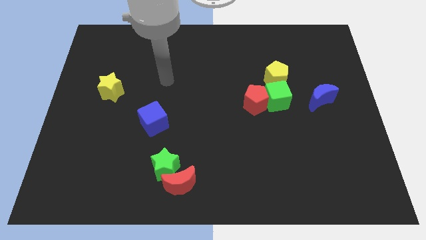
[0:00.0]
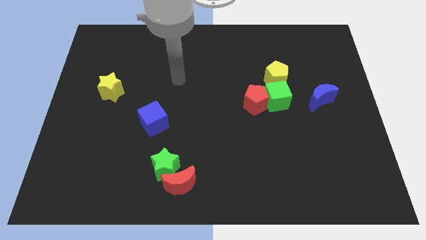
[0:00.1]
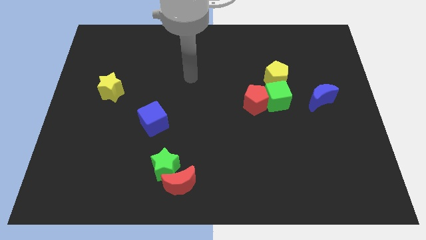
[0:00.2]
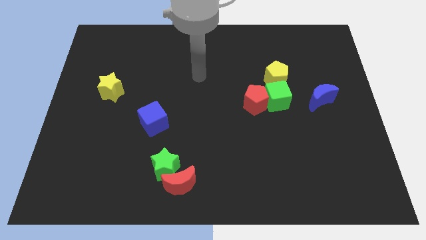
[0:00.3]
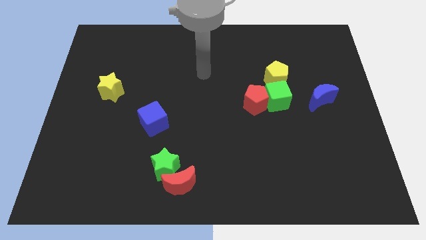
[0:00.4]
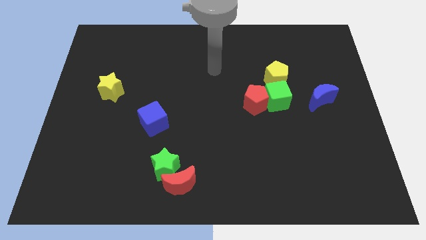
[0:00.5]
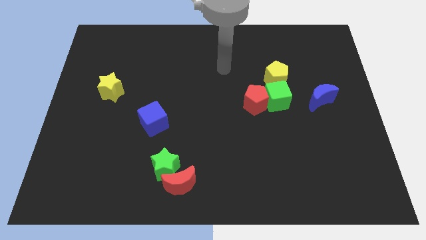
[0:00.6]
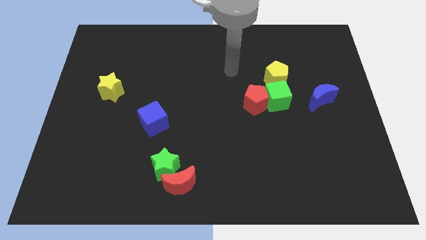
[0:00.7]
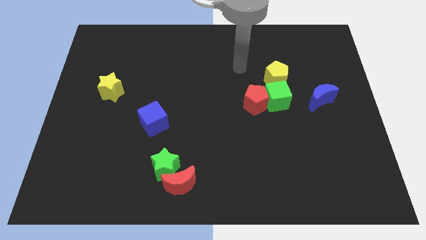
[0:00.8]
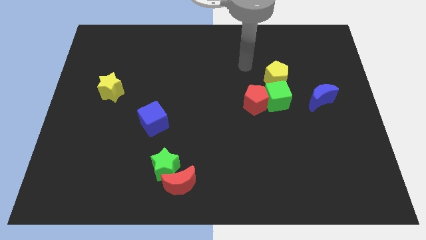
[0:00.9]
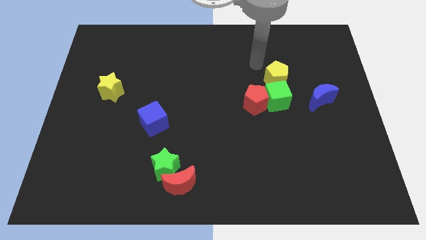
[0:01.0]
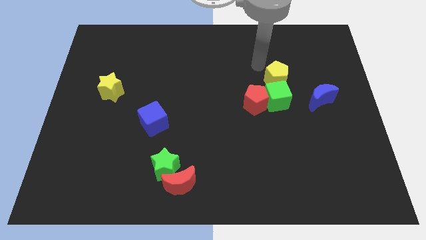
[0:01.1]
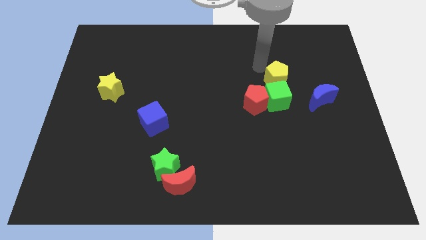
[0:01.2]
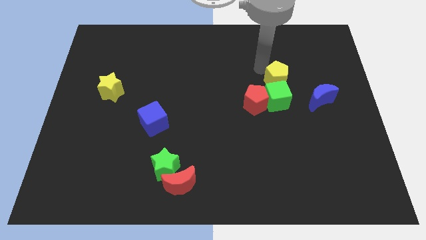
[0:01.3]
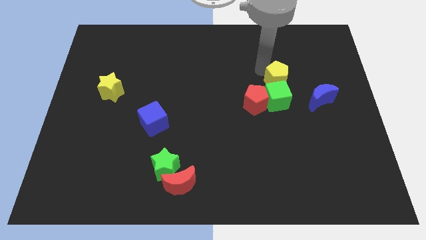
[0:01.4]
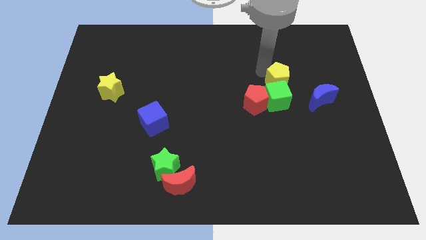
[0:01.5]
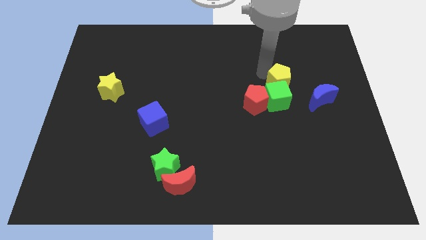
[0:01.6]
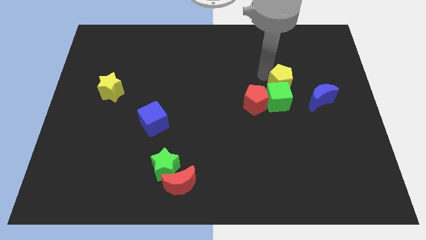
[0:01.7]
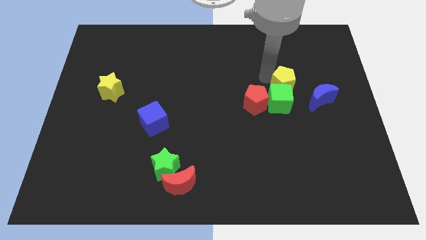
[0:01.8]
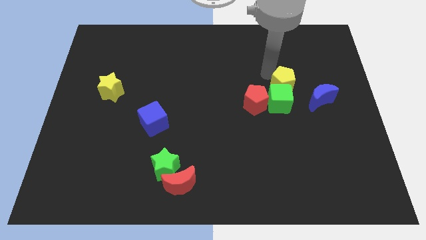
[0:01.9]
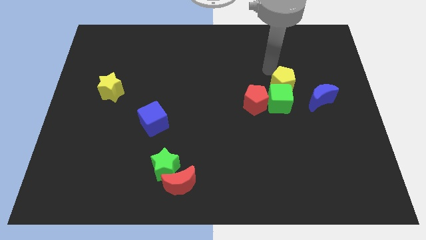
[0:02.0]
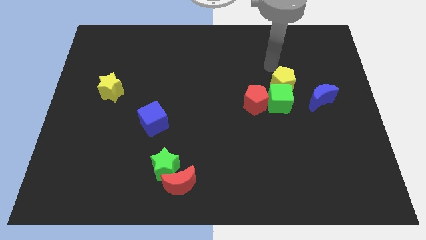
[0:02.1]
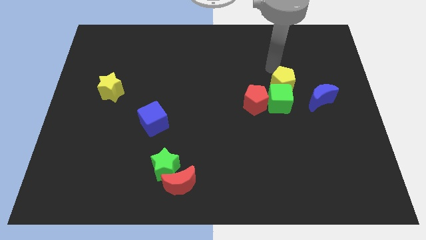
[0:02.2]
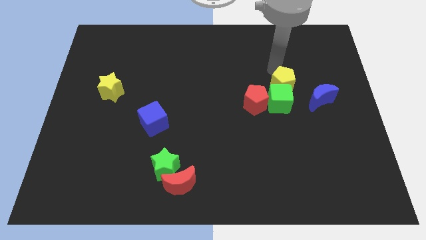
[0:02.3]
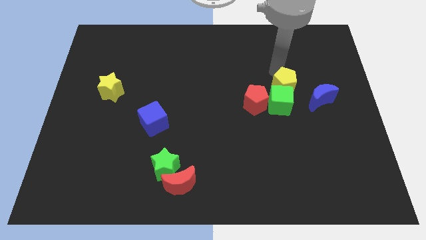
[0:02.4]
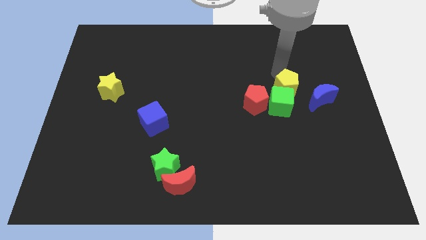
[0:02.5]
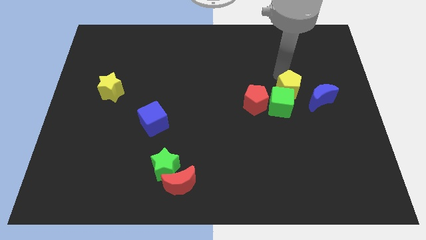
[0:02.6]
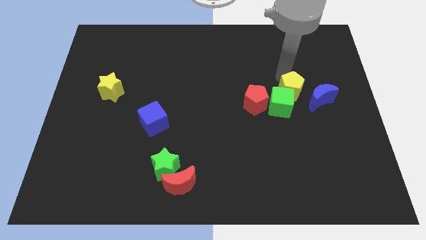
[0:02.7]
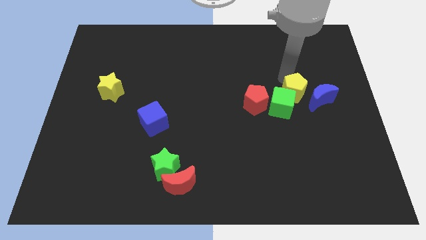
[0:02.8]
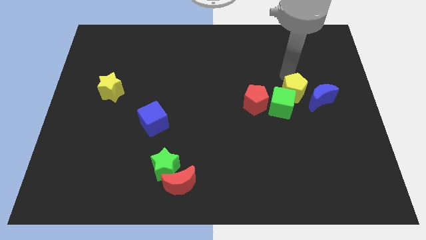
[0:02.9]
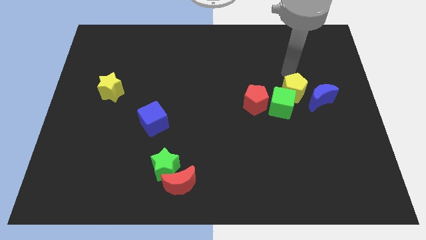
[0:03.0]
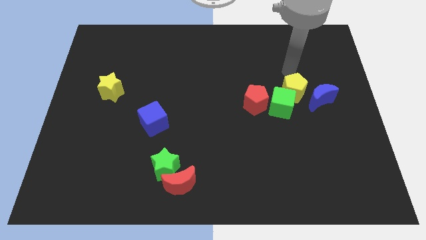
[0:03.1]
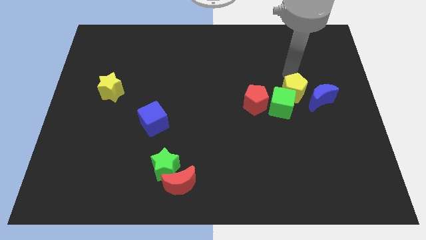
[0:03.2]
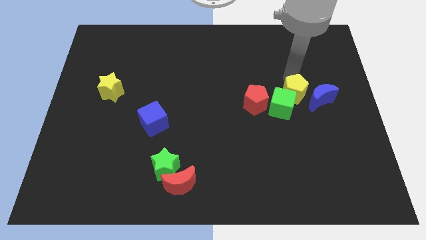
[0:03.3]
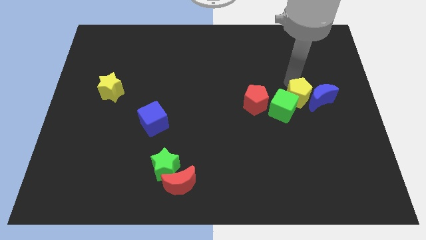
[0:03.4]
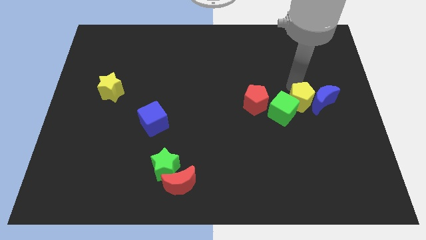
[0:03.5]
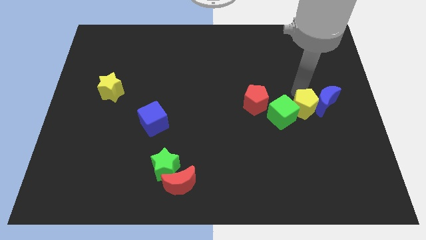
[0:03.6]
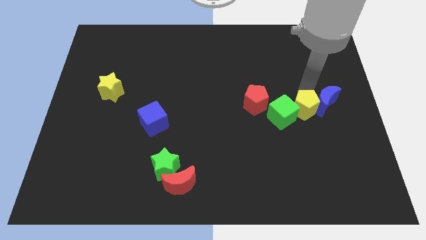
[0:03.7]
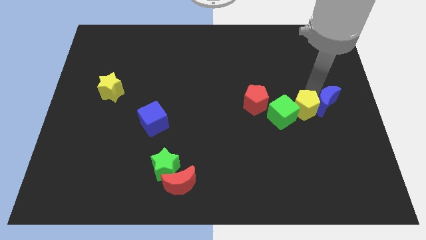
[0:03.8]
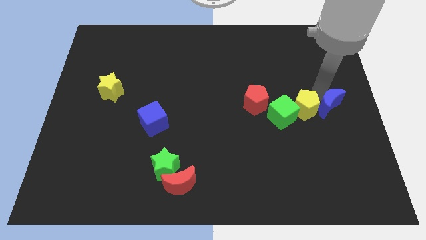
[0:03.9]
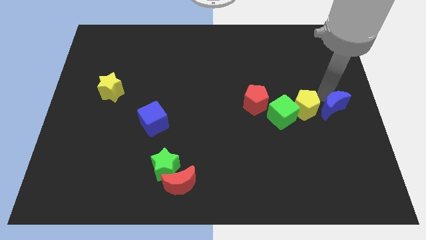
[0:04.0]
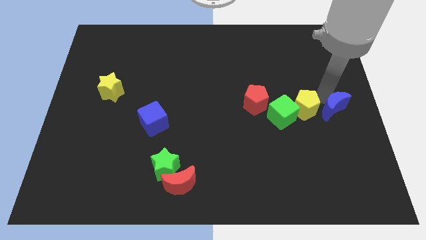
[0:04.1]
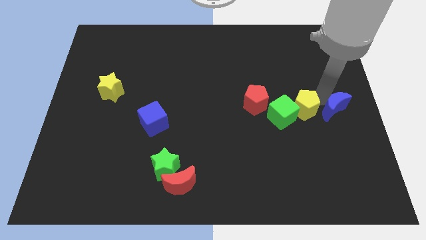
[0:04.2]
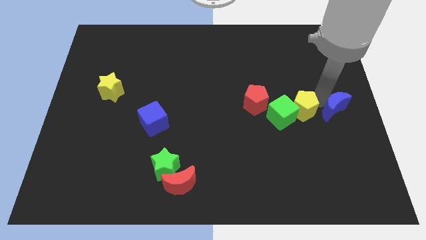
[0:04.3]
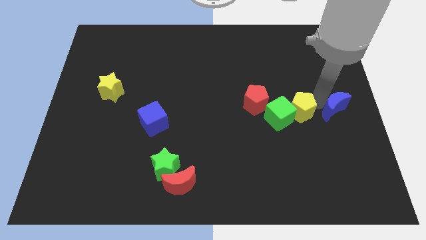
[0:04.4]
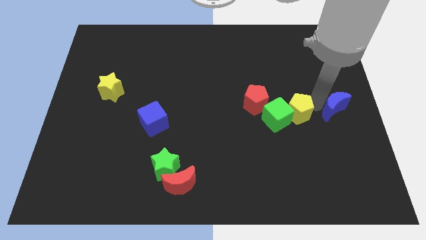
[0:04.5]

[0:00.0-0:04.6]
slide the yellow pentagon diagonally down and to the right of the red pentagon

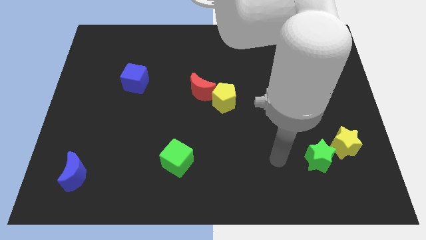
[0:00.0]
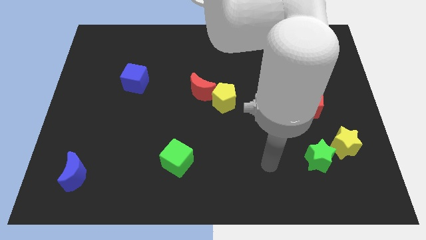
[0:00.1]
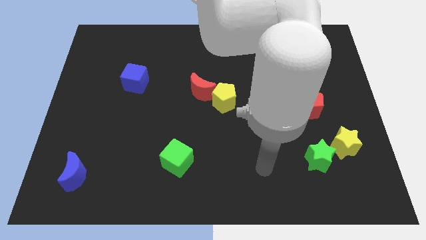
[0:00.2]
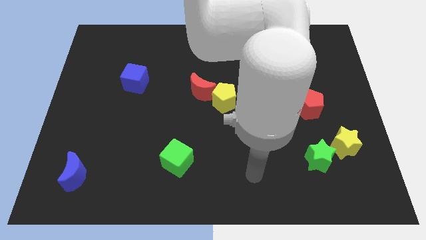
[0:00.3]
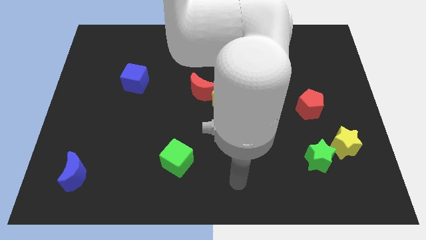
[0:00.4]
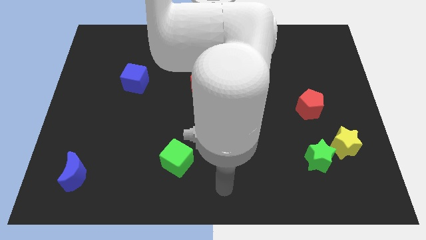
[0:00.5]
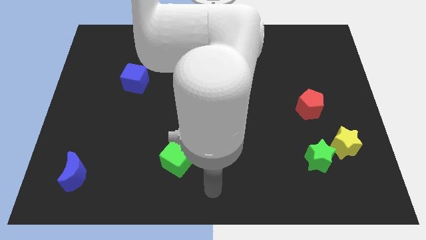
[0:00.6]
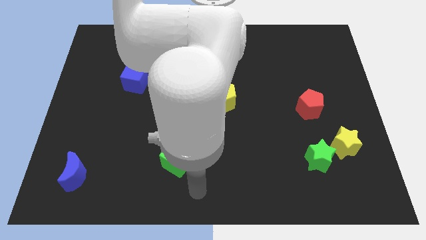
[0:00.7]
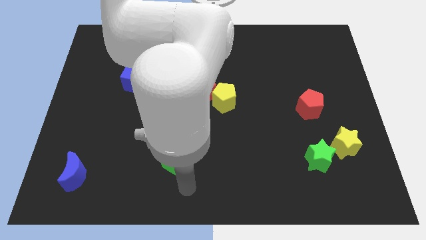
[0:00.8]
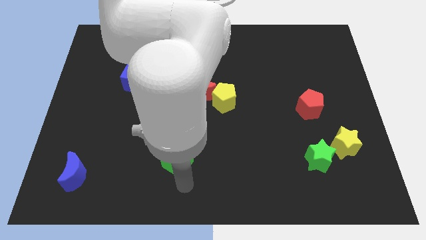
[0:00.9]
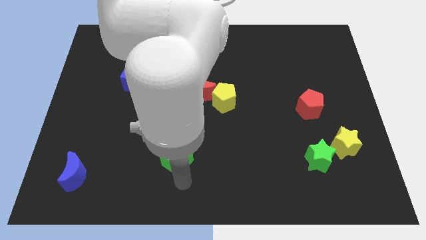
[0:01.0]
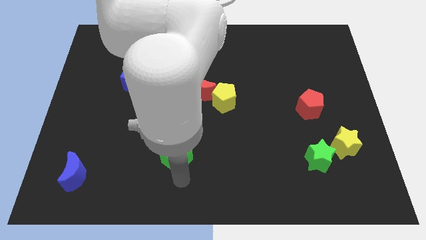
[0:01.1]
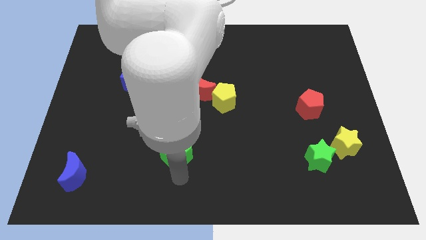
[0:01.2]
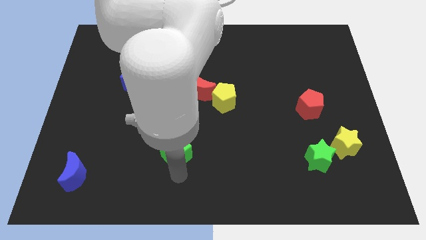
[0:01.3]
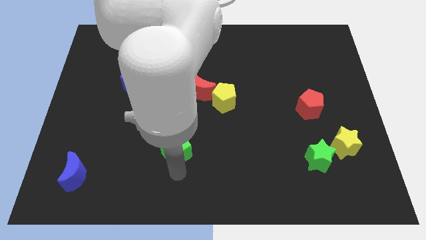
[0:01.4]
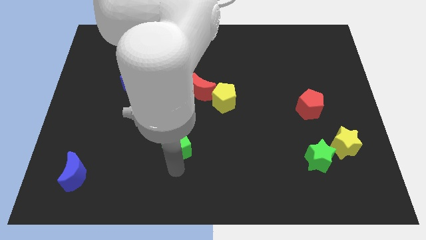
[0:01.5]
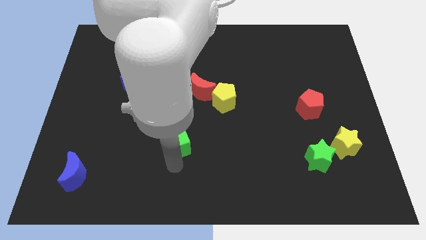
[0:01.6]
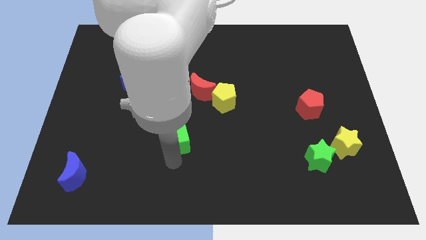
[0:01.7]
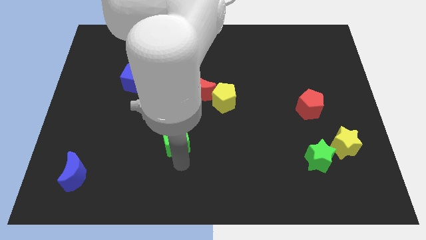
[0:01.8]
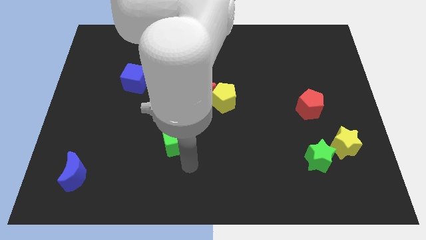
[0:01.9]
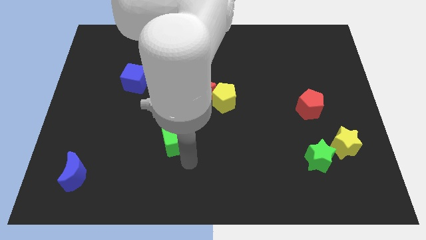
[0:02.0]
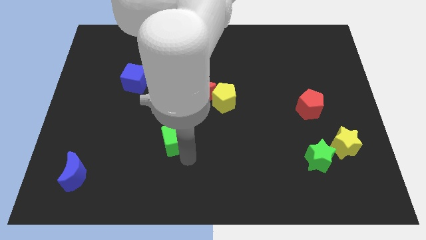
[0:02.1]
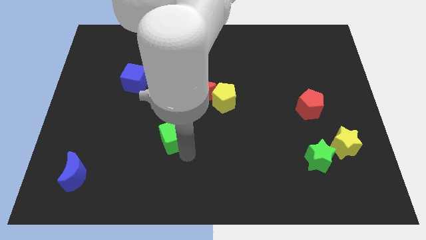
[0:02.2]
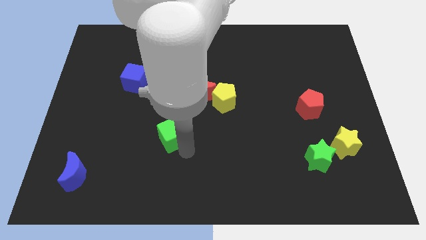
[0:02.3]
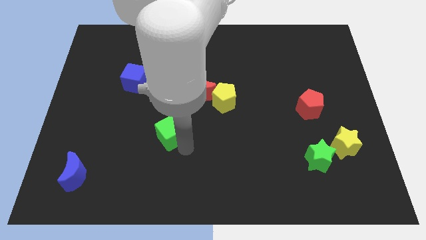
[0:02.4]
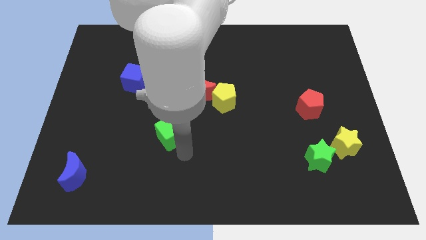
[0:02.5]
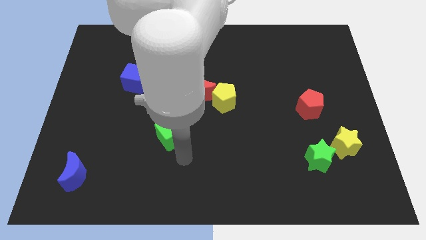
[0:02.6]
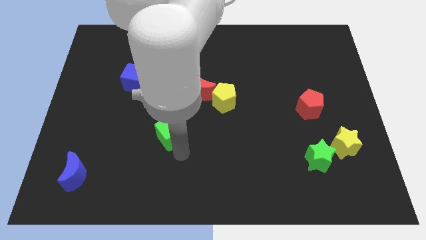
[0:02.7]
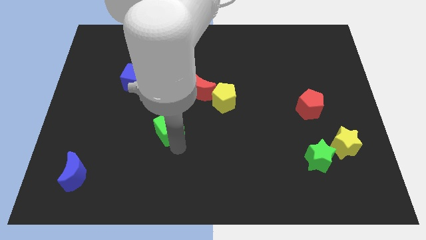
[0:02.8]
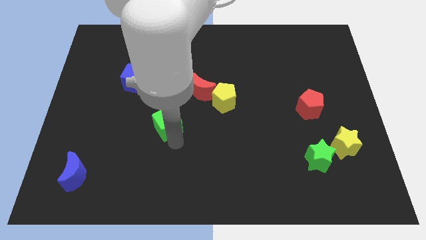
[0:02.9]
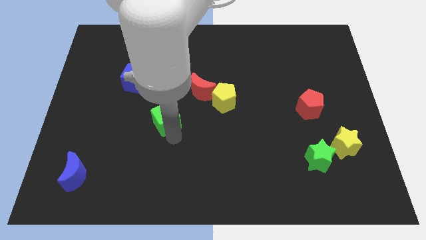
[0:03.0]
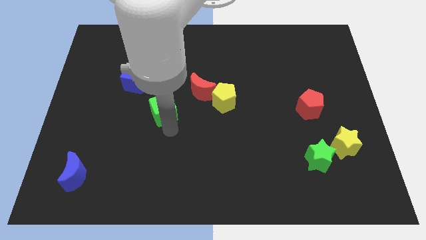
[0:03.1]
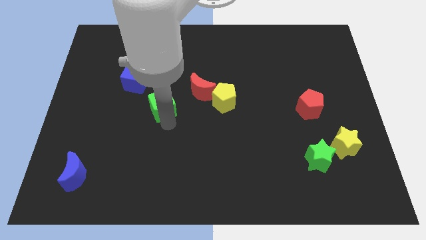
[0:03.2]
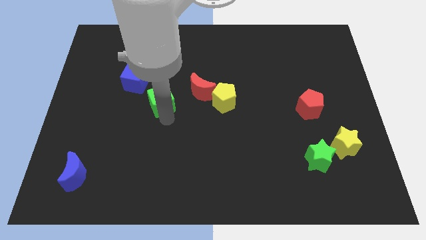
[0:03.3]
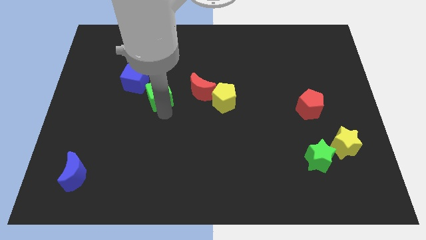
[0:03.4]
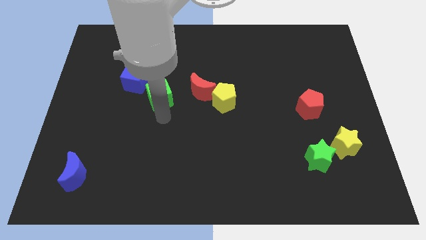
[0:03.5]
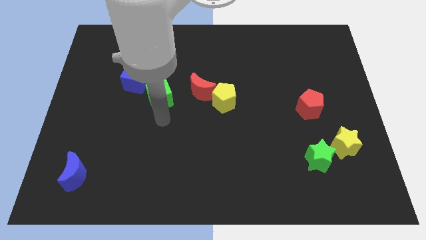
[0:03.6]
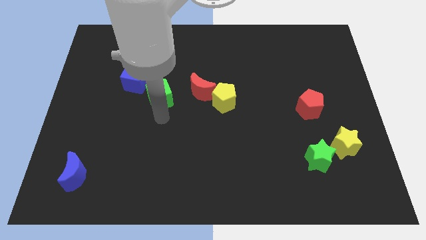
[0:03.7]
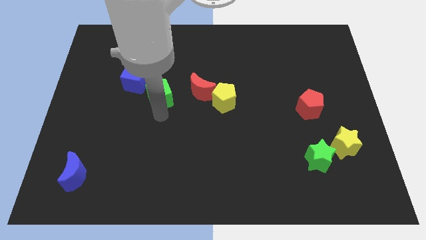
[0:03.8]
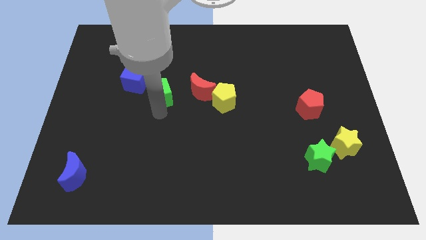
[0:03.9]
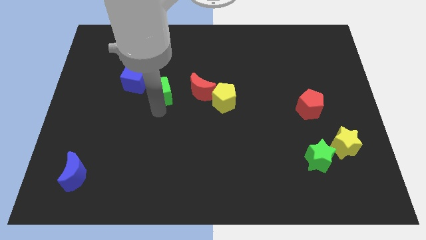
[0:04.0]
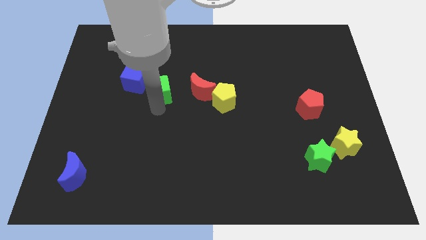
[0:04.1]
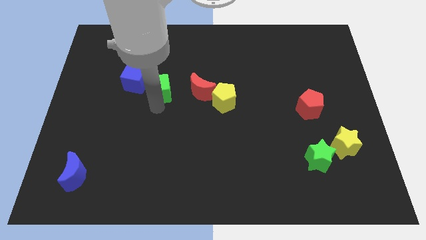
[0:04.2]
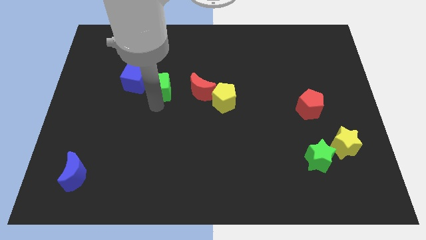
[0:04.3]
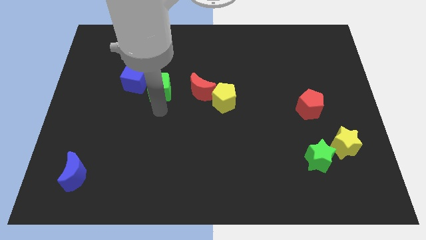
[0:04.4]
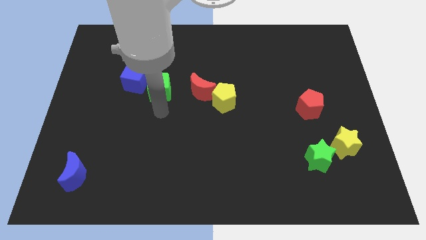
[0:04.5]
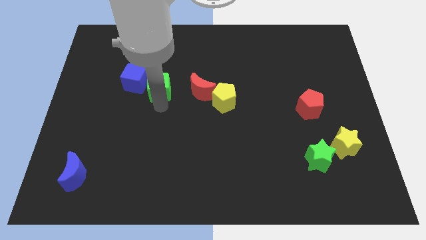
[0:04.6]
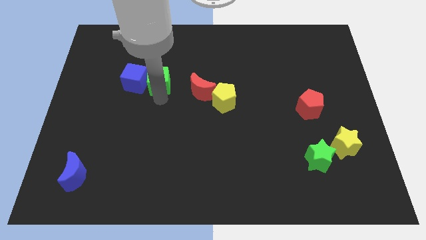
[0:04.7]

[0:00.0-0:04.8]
put the green cube to the top right of the blue cube
